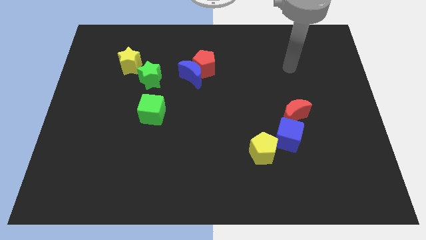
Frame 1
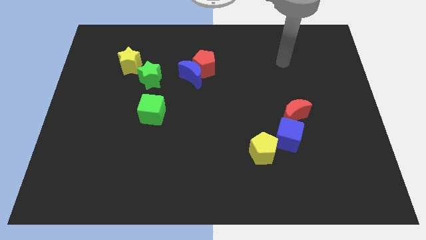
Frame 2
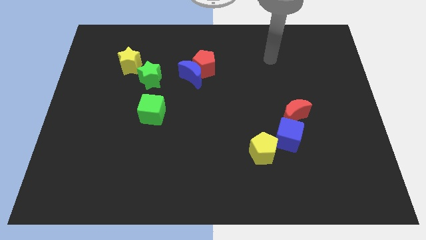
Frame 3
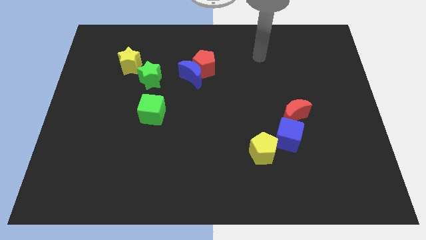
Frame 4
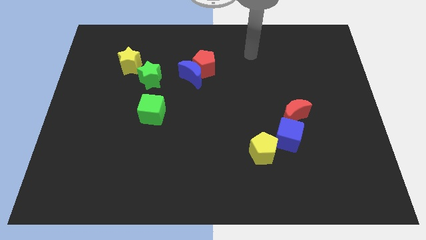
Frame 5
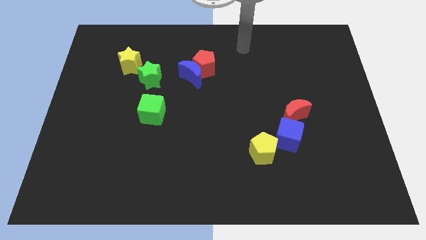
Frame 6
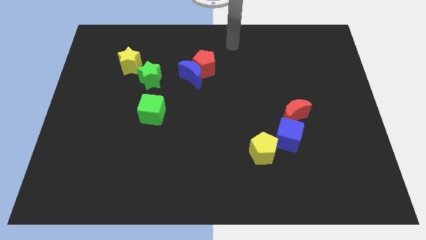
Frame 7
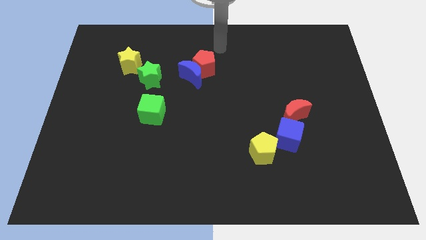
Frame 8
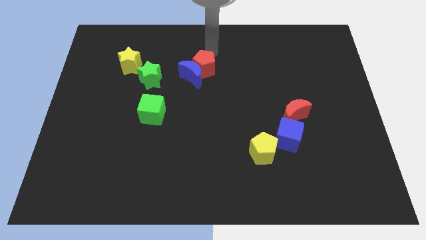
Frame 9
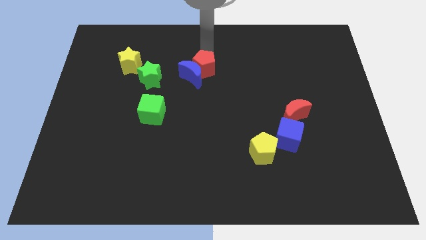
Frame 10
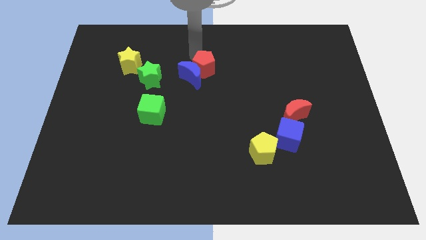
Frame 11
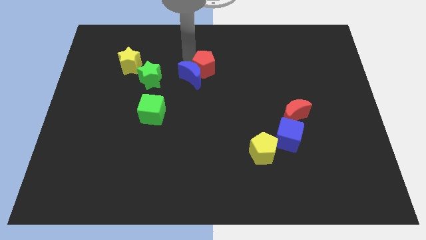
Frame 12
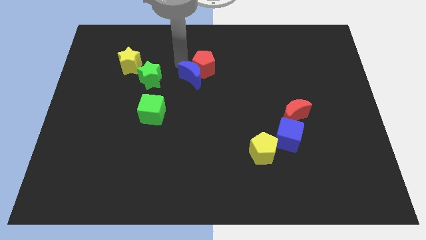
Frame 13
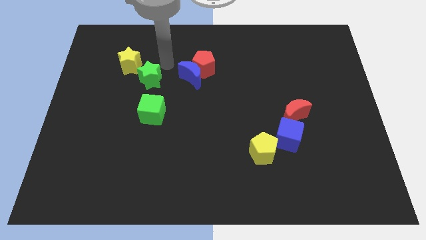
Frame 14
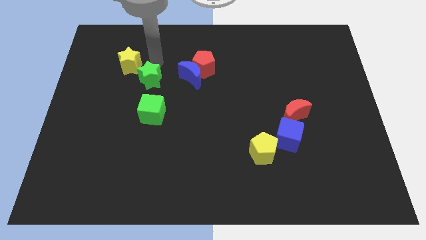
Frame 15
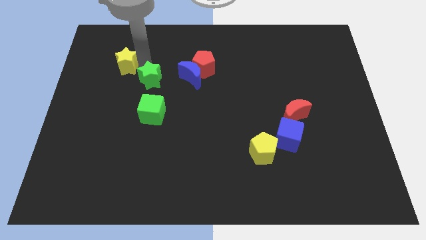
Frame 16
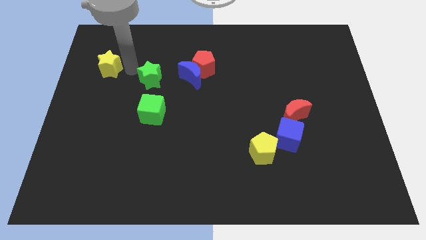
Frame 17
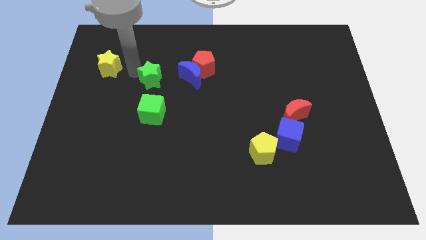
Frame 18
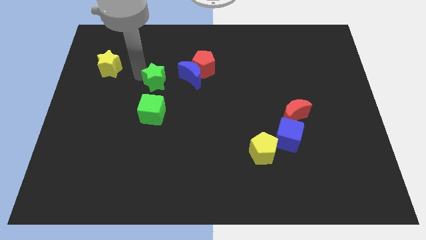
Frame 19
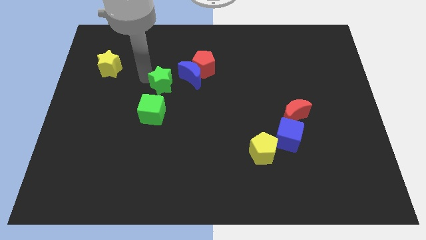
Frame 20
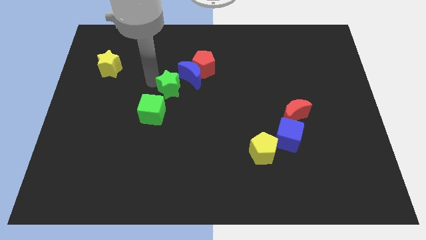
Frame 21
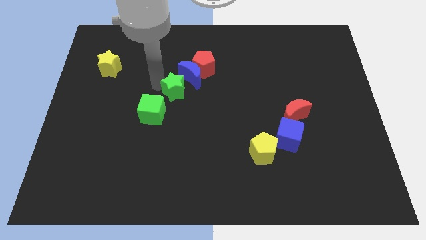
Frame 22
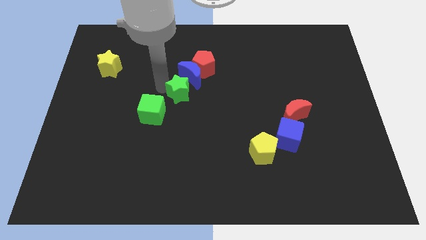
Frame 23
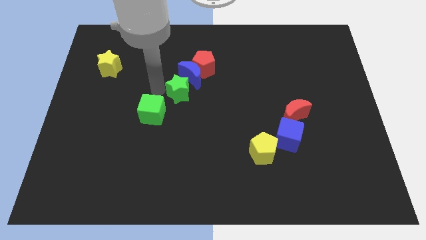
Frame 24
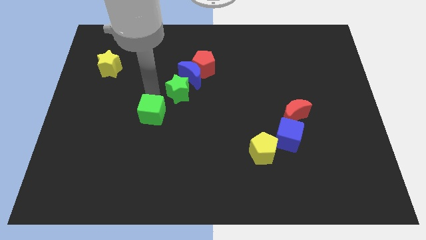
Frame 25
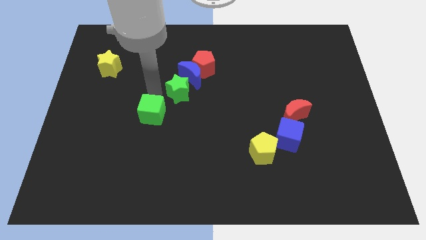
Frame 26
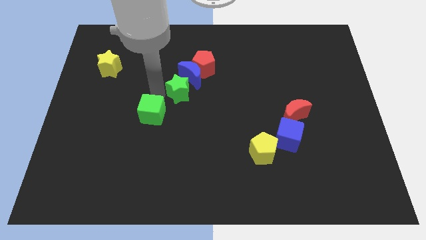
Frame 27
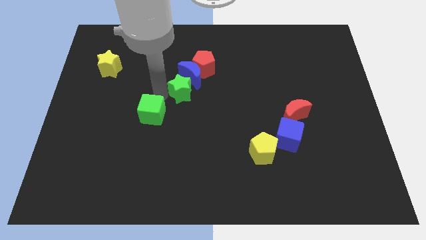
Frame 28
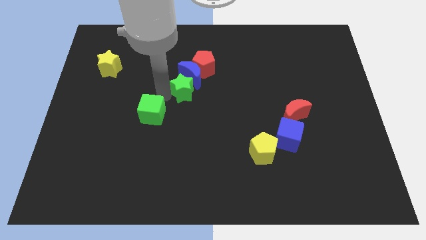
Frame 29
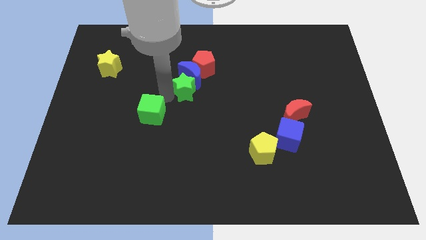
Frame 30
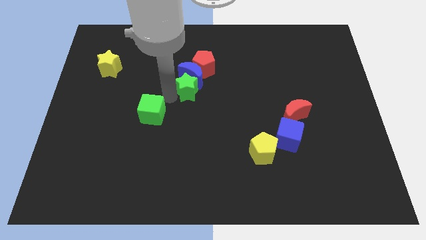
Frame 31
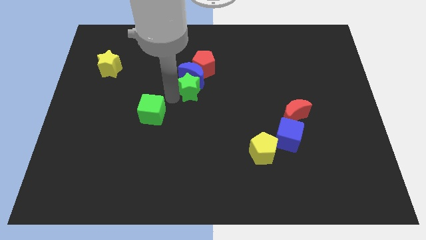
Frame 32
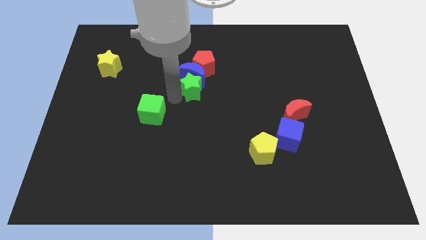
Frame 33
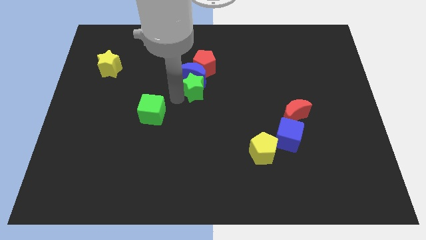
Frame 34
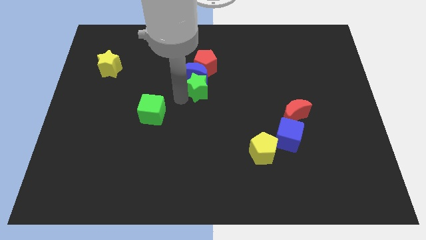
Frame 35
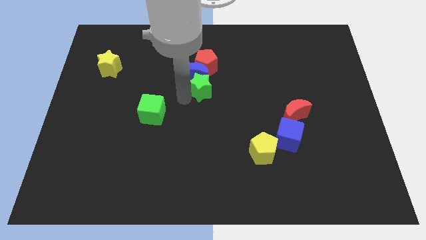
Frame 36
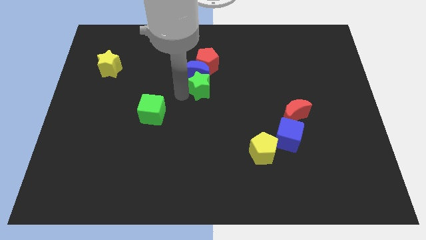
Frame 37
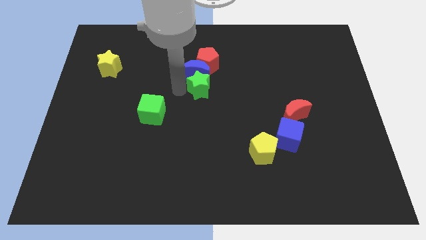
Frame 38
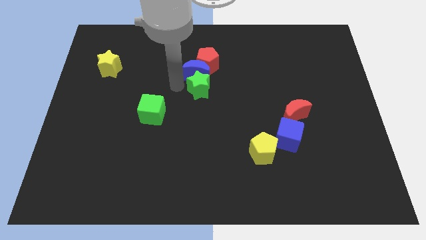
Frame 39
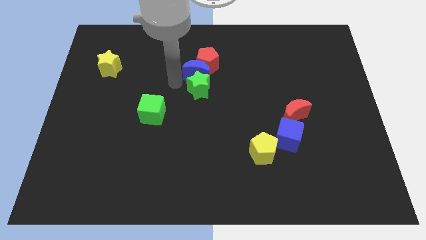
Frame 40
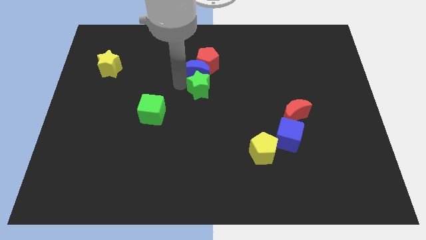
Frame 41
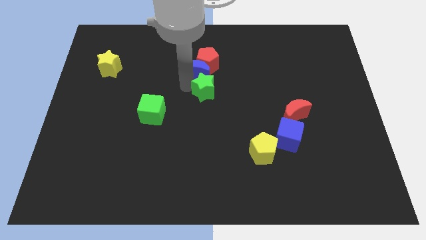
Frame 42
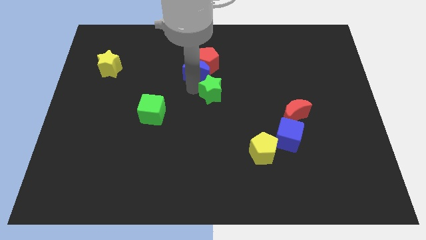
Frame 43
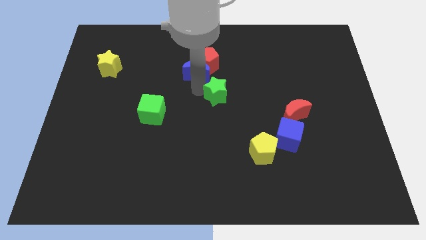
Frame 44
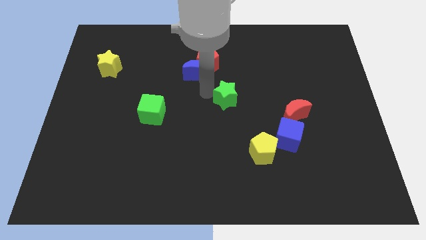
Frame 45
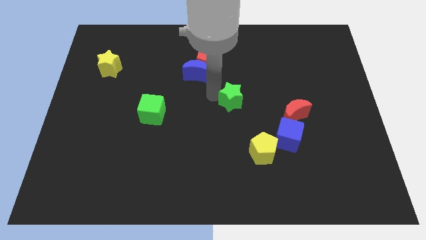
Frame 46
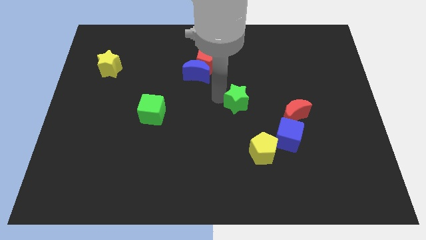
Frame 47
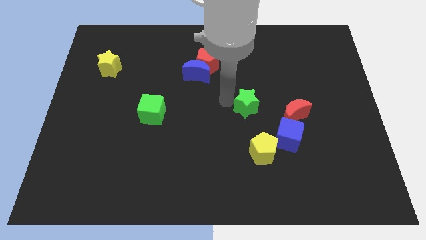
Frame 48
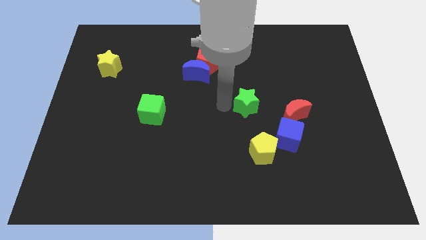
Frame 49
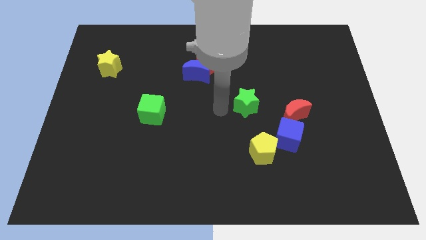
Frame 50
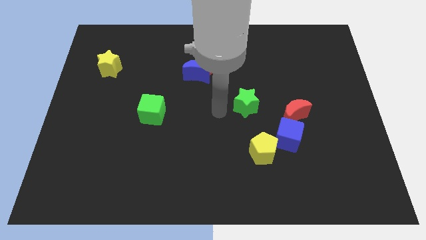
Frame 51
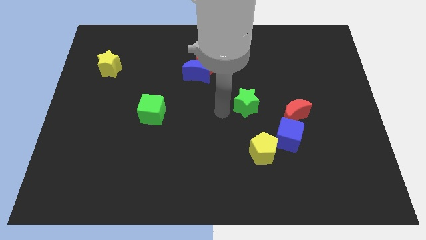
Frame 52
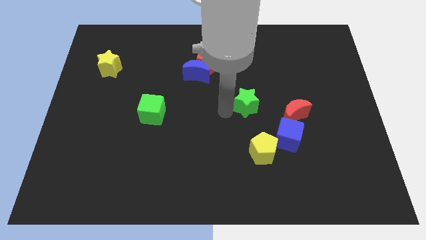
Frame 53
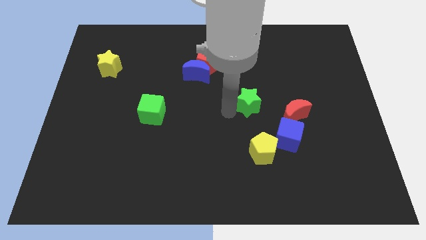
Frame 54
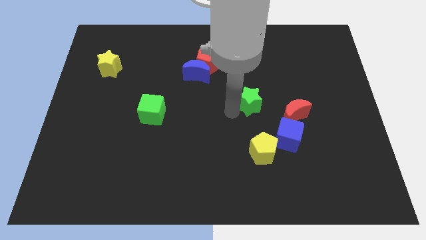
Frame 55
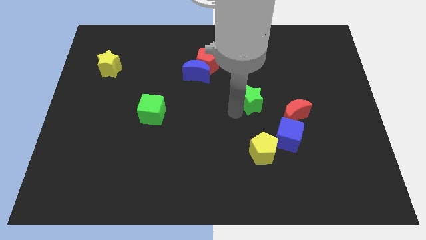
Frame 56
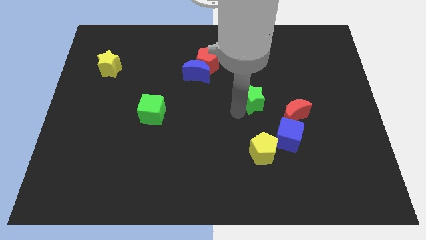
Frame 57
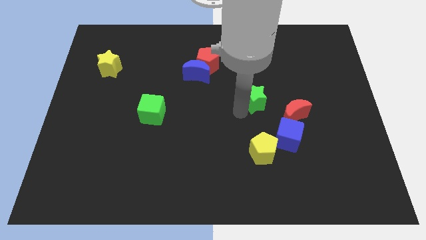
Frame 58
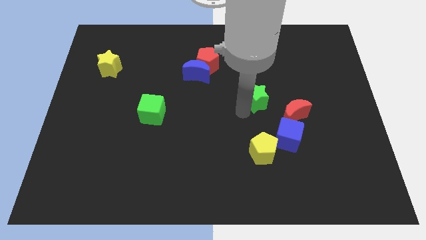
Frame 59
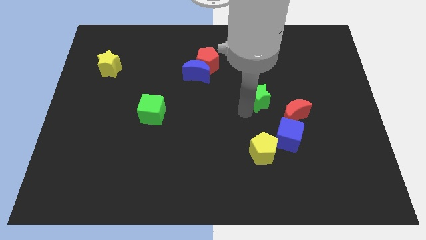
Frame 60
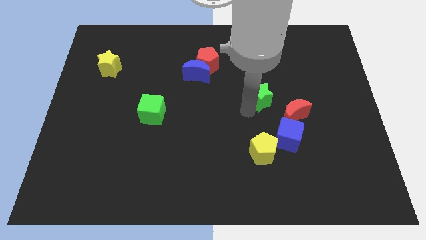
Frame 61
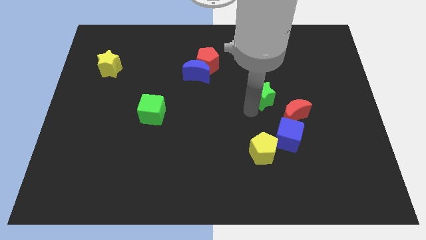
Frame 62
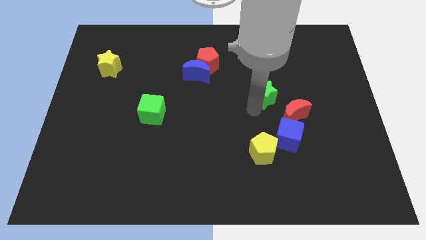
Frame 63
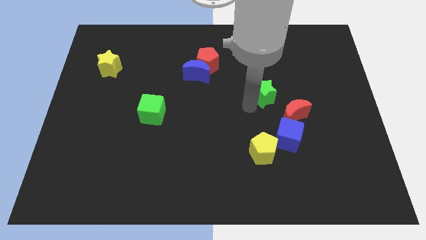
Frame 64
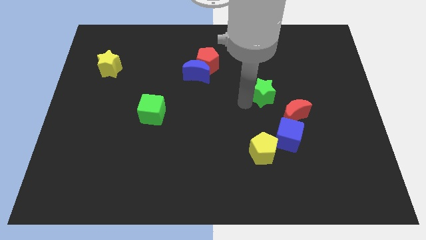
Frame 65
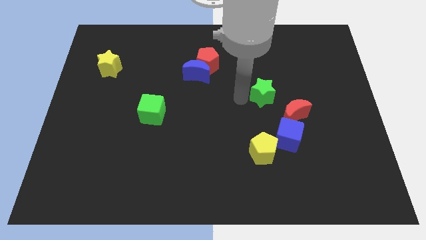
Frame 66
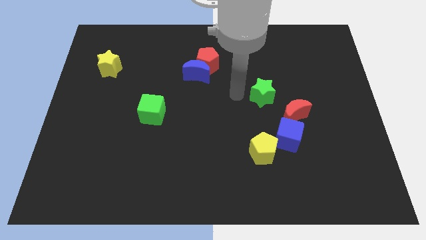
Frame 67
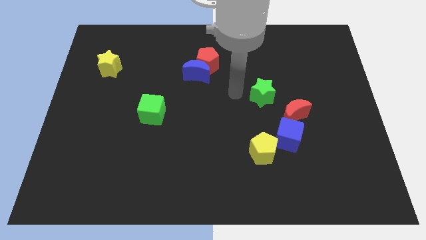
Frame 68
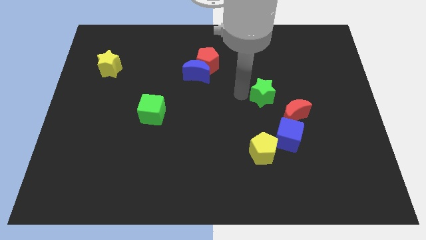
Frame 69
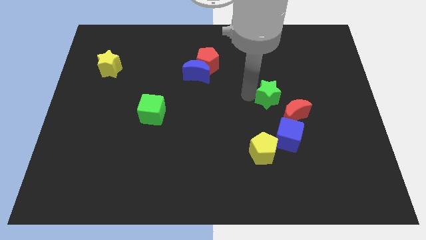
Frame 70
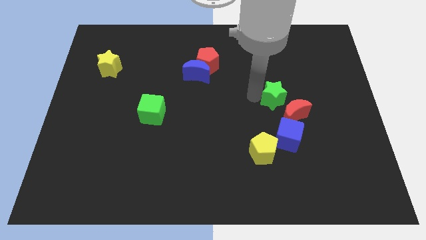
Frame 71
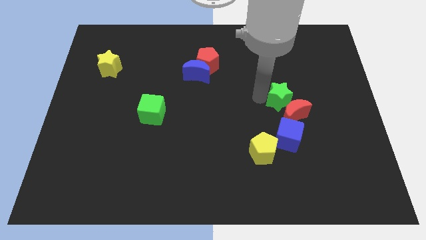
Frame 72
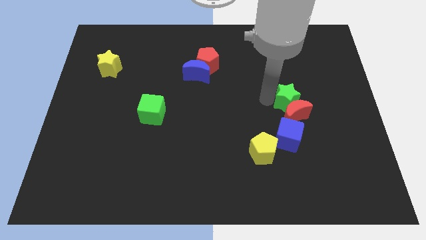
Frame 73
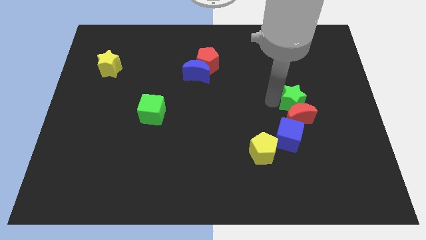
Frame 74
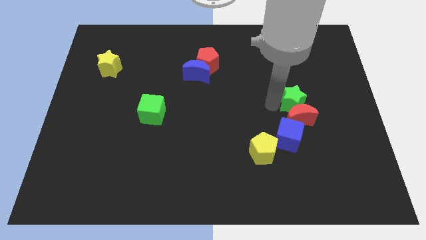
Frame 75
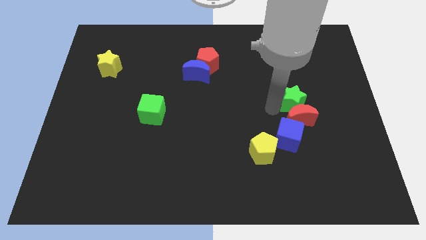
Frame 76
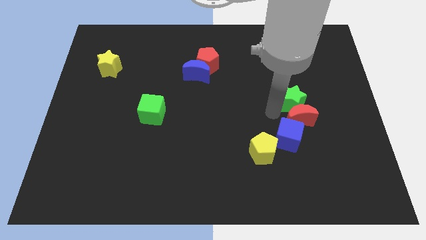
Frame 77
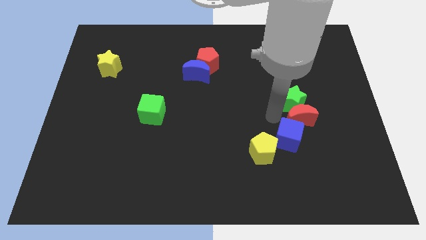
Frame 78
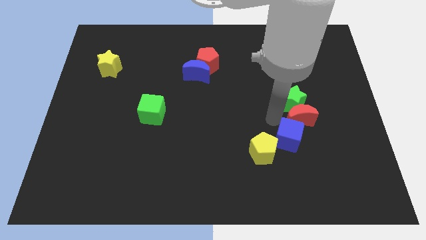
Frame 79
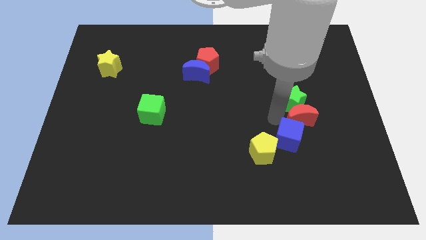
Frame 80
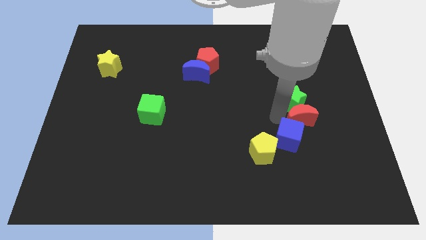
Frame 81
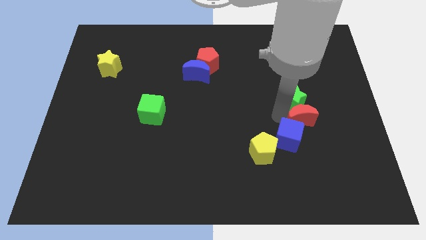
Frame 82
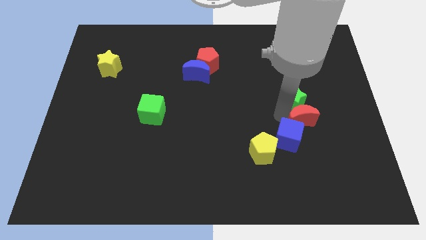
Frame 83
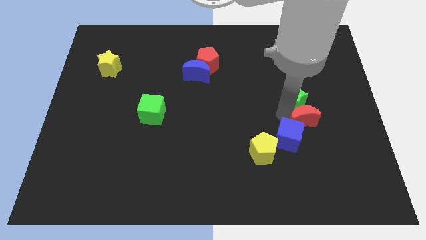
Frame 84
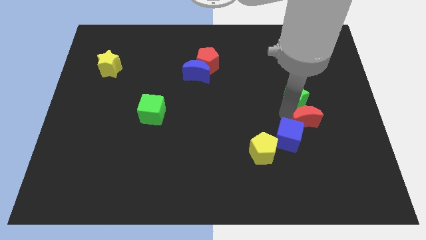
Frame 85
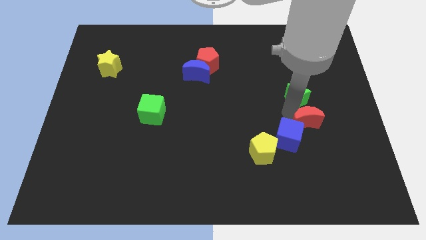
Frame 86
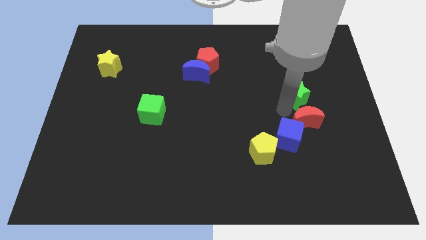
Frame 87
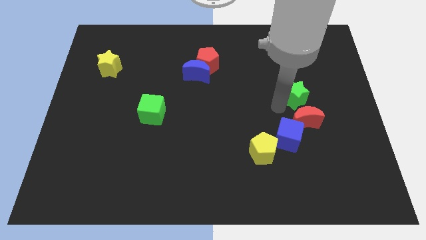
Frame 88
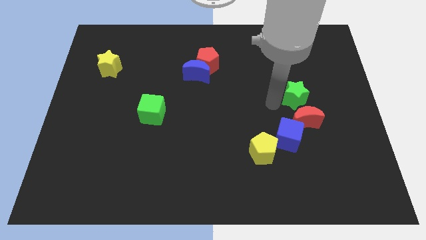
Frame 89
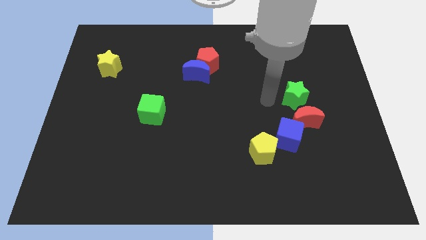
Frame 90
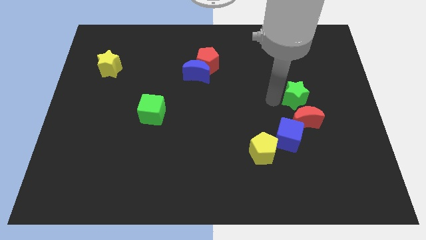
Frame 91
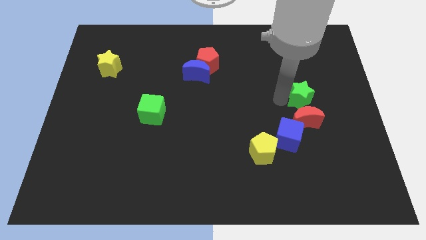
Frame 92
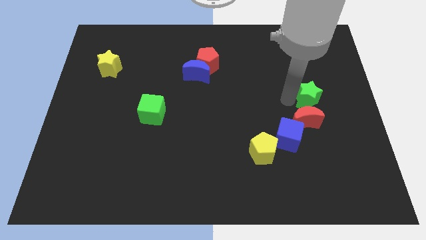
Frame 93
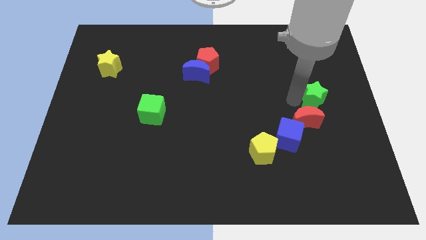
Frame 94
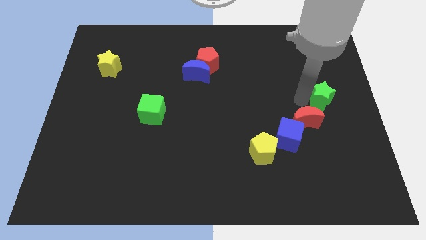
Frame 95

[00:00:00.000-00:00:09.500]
put the green star to the center right
